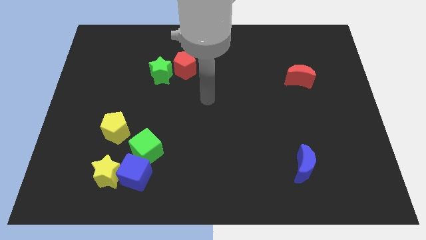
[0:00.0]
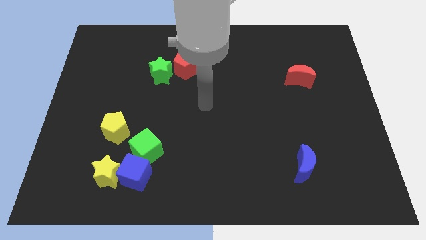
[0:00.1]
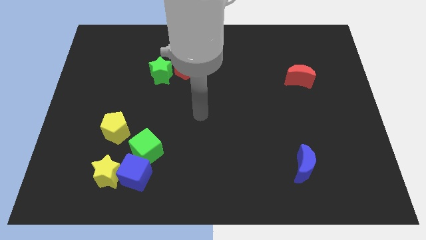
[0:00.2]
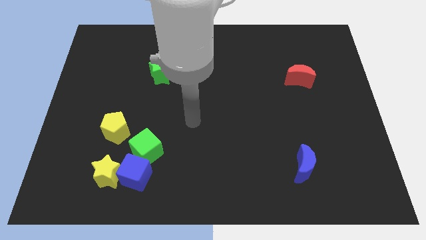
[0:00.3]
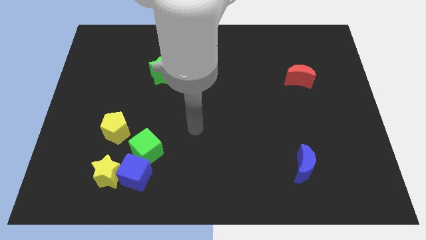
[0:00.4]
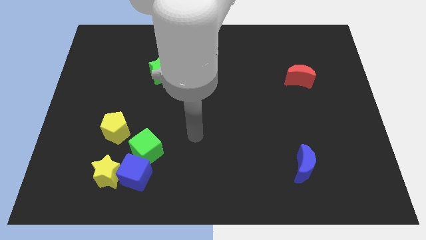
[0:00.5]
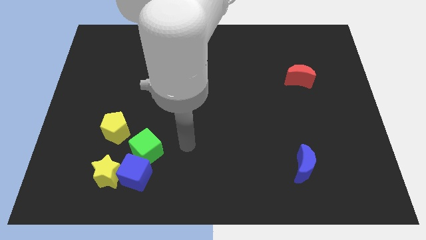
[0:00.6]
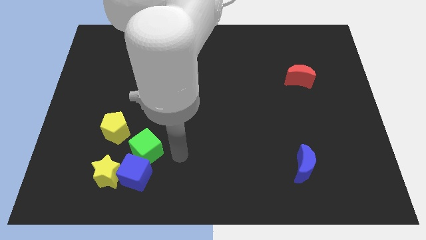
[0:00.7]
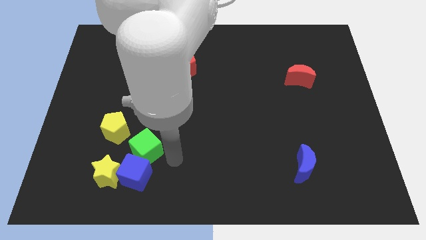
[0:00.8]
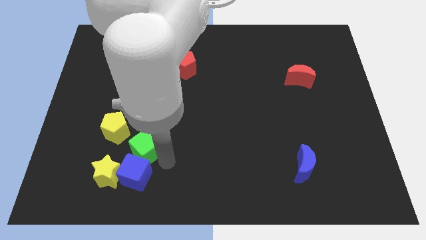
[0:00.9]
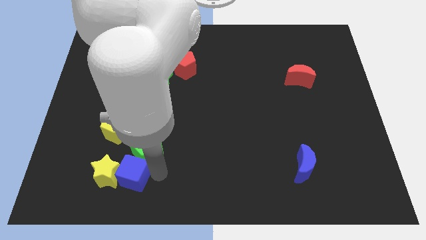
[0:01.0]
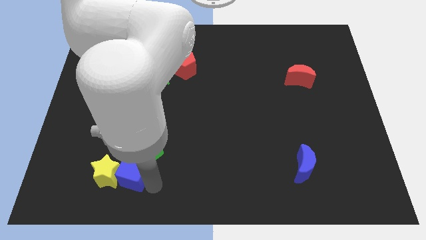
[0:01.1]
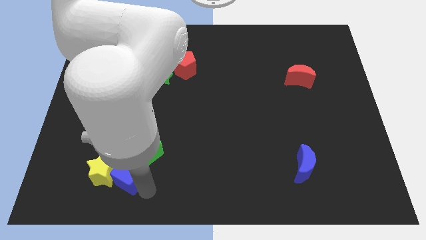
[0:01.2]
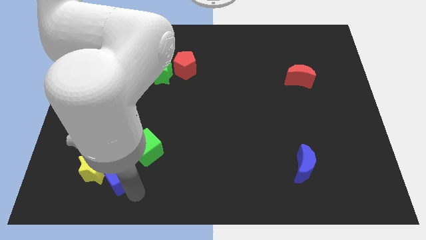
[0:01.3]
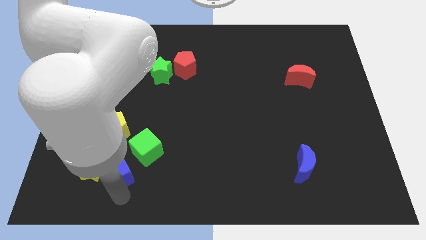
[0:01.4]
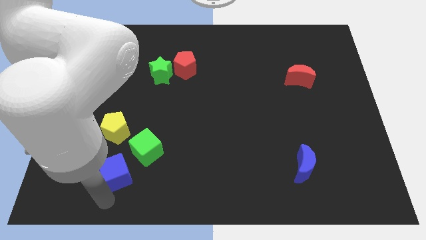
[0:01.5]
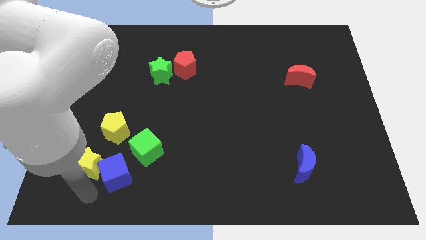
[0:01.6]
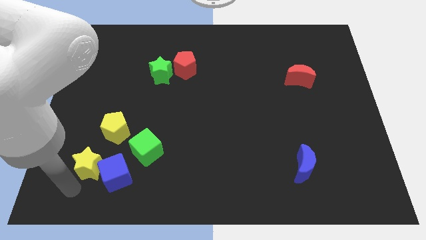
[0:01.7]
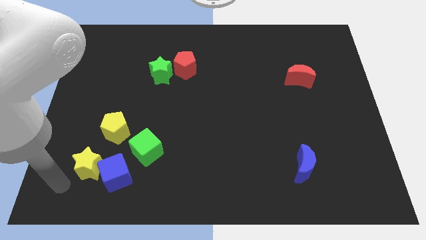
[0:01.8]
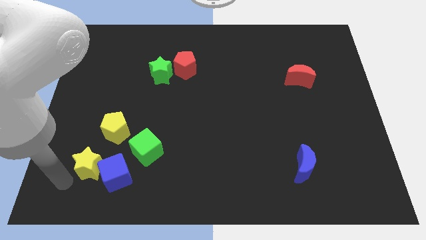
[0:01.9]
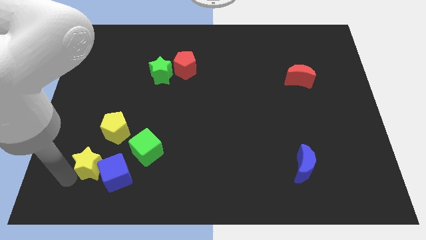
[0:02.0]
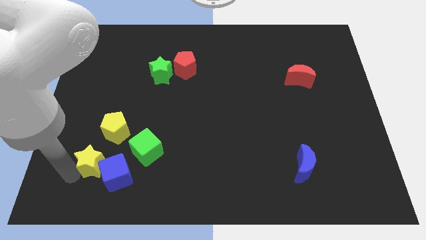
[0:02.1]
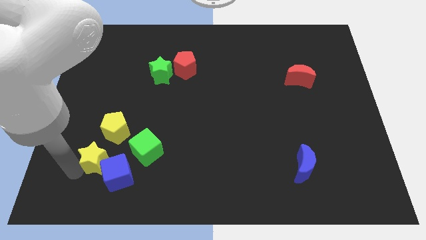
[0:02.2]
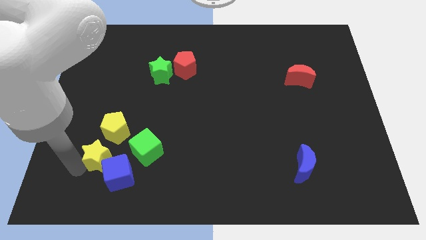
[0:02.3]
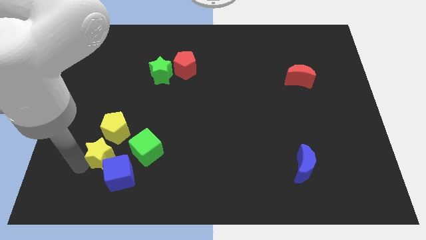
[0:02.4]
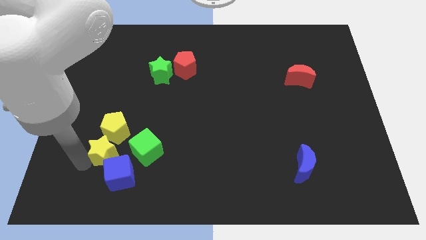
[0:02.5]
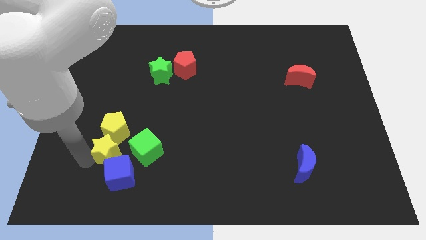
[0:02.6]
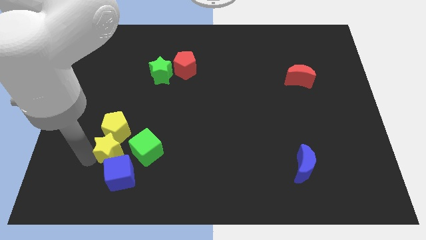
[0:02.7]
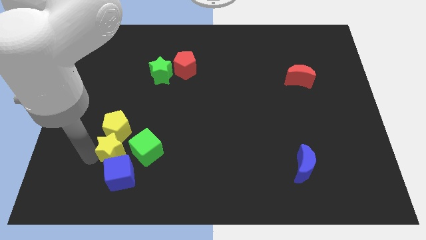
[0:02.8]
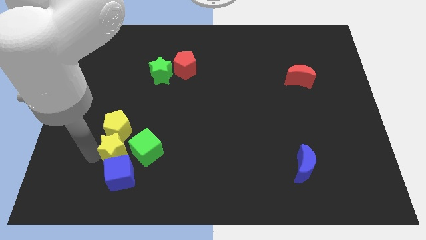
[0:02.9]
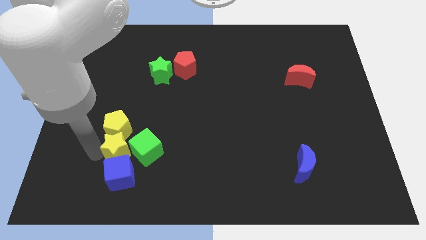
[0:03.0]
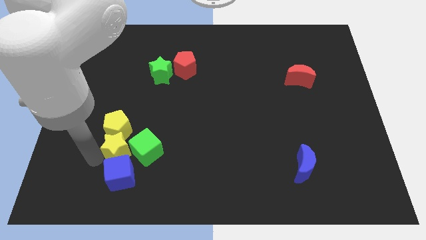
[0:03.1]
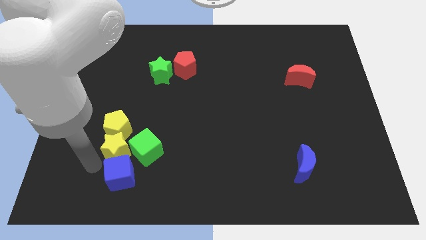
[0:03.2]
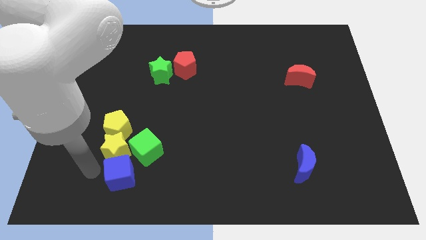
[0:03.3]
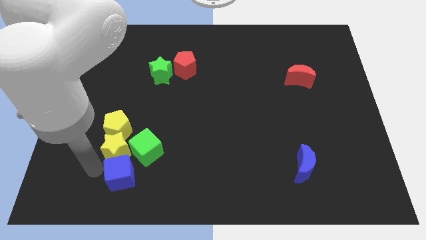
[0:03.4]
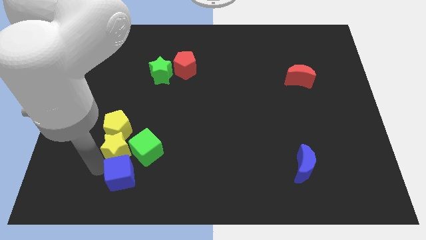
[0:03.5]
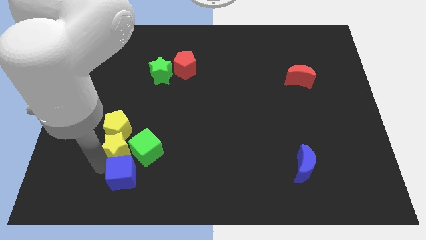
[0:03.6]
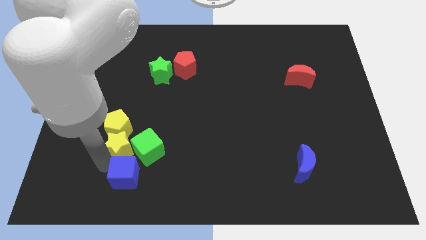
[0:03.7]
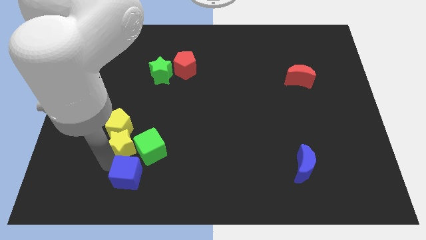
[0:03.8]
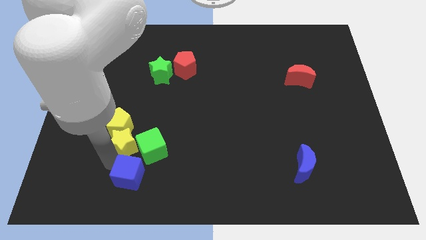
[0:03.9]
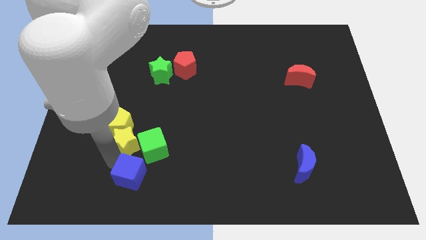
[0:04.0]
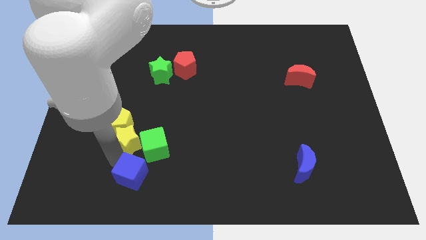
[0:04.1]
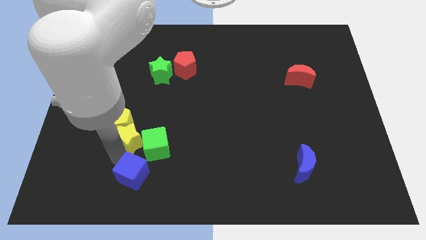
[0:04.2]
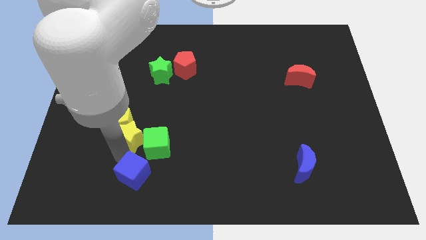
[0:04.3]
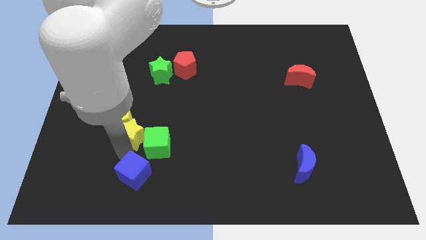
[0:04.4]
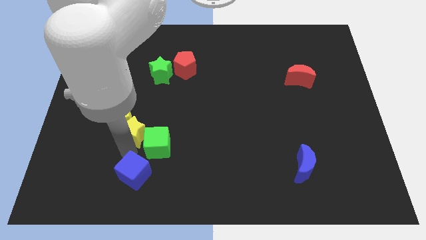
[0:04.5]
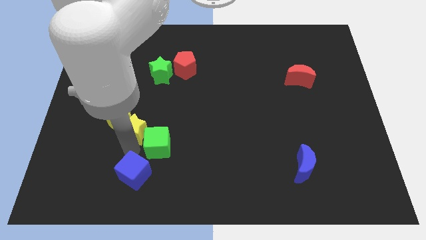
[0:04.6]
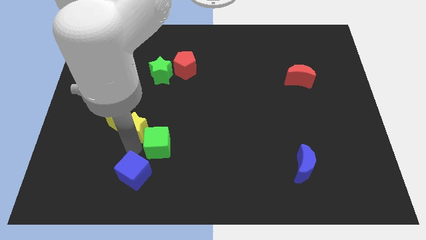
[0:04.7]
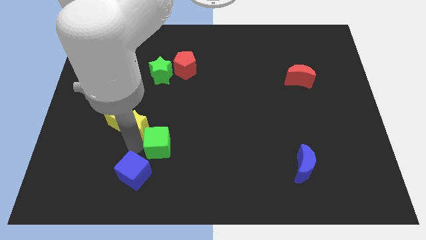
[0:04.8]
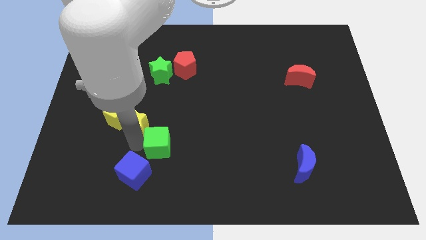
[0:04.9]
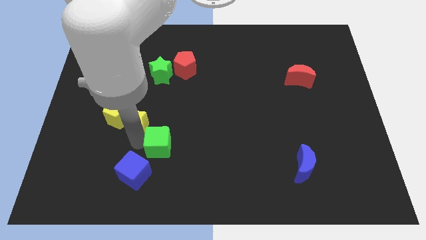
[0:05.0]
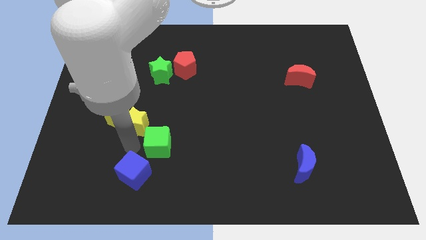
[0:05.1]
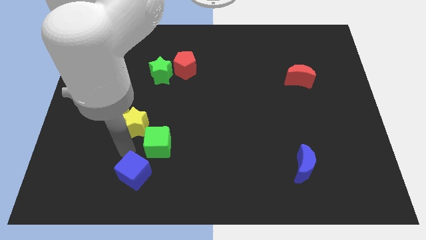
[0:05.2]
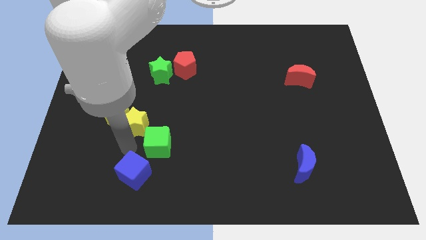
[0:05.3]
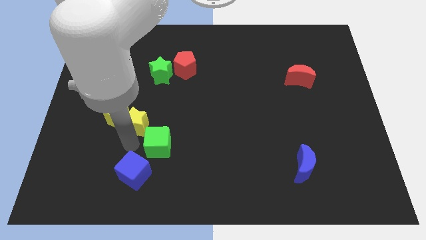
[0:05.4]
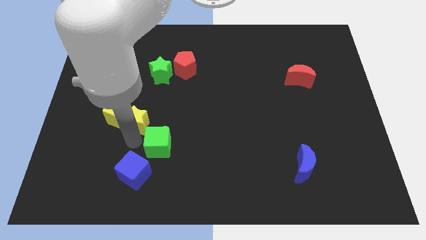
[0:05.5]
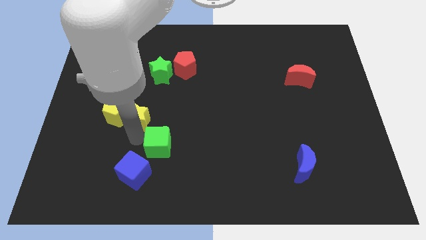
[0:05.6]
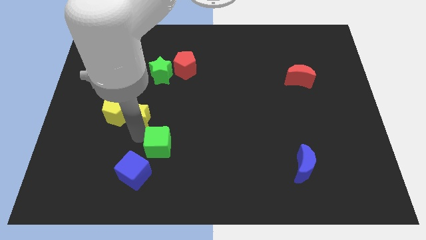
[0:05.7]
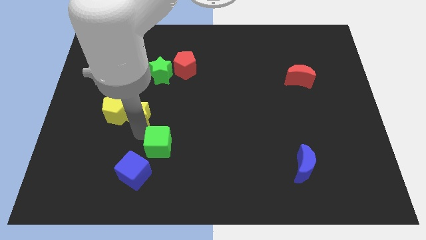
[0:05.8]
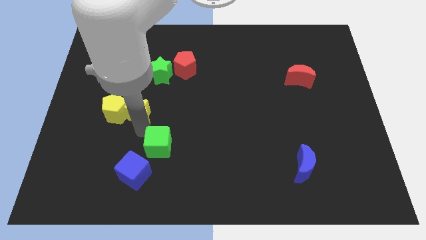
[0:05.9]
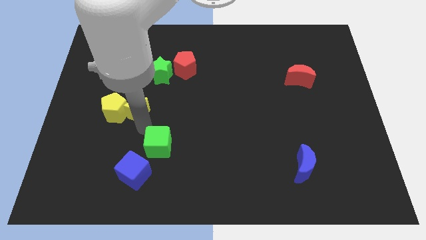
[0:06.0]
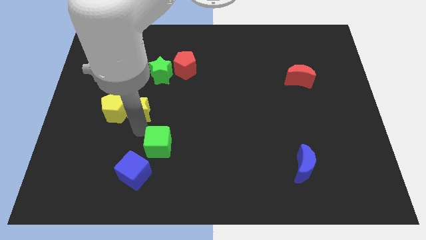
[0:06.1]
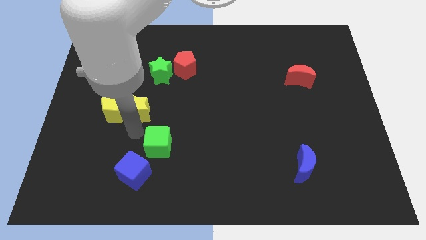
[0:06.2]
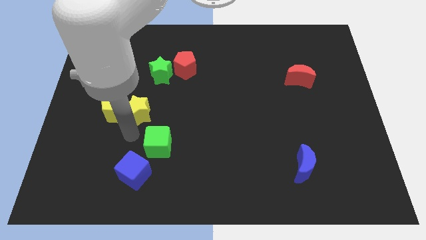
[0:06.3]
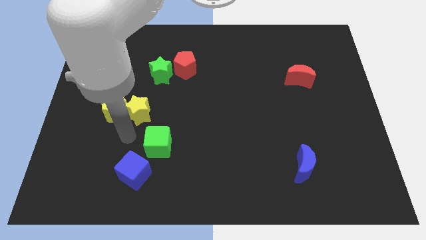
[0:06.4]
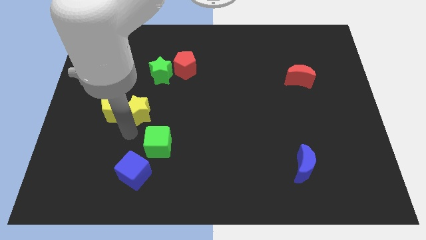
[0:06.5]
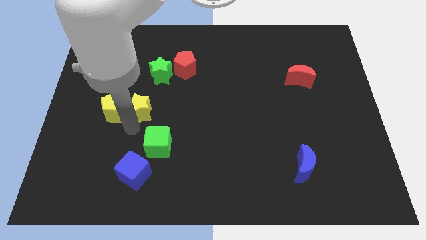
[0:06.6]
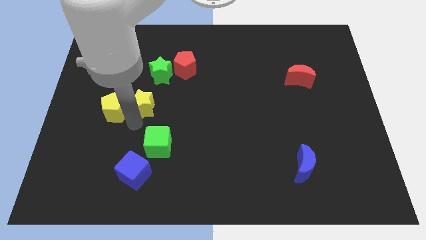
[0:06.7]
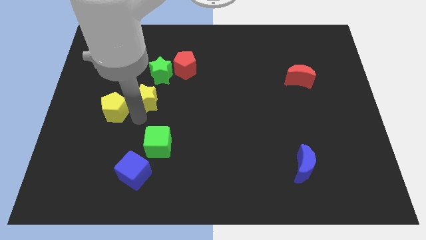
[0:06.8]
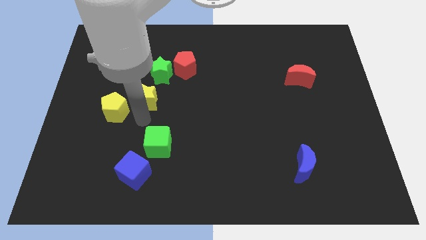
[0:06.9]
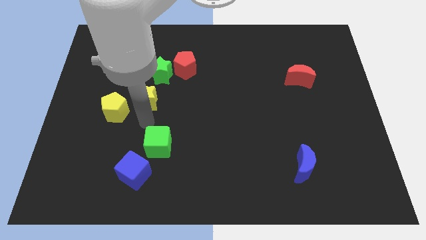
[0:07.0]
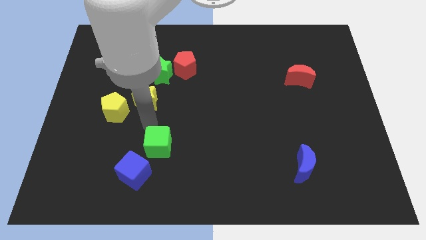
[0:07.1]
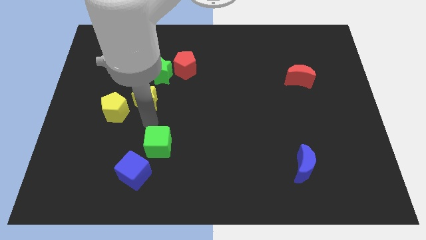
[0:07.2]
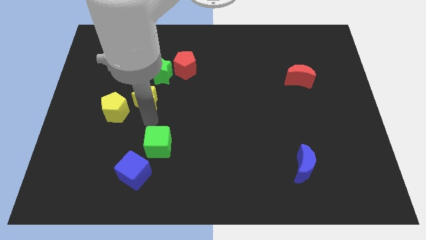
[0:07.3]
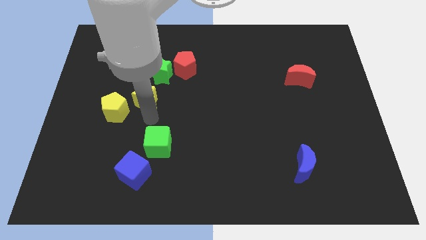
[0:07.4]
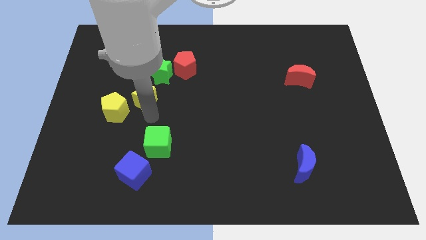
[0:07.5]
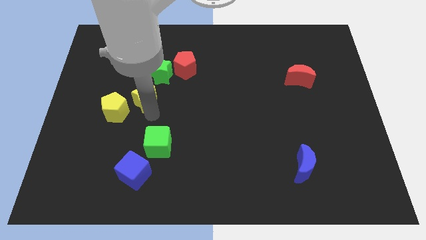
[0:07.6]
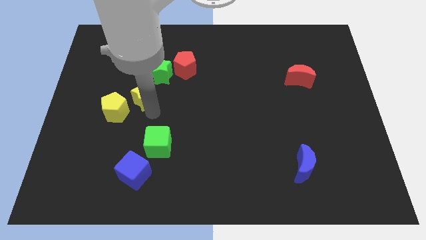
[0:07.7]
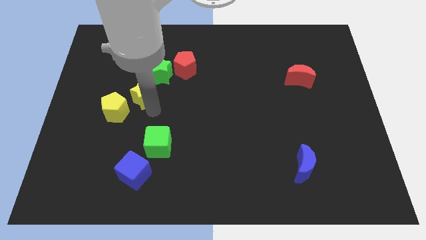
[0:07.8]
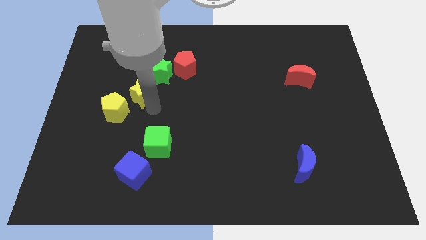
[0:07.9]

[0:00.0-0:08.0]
slide the yellow star upwards

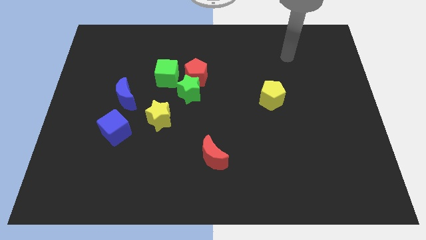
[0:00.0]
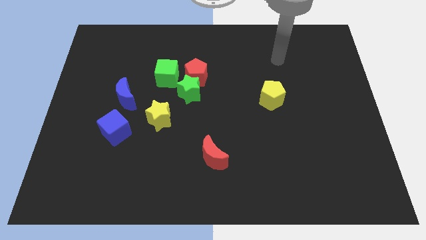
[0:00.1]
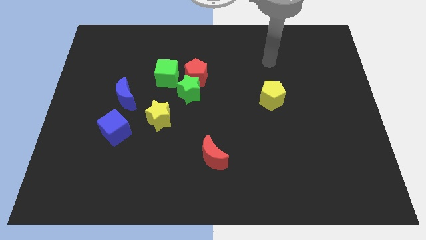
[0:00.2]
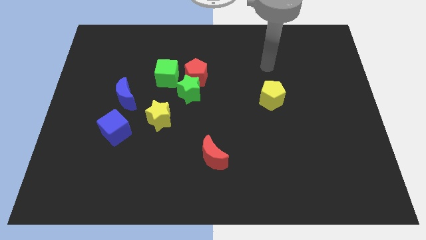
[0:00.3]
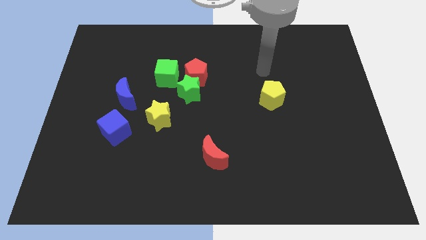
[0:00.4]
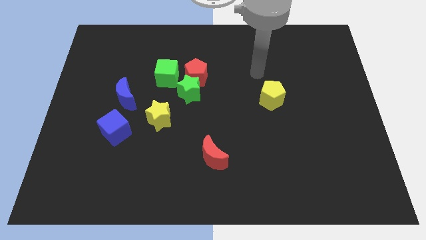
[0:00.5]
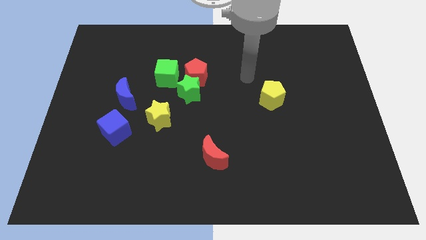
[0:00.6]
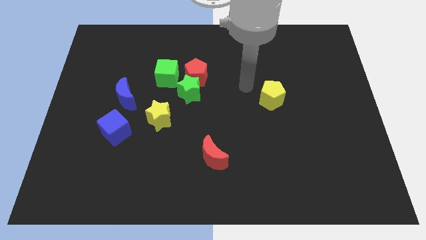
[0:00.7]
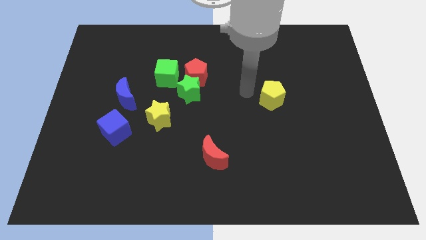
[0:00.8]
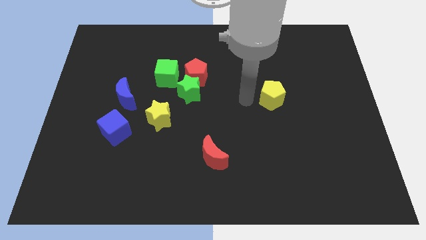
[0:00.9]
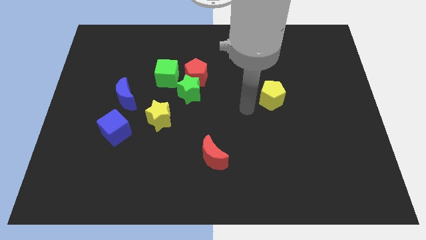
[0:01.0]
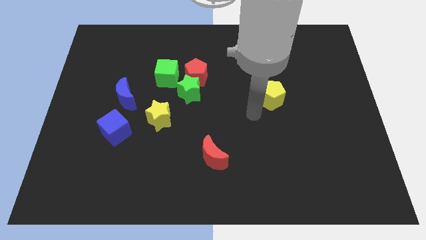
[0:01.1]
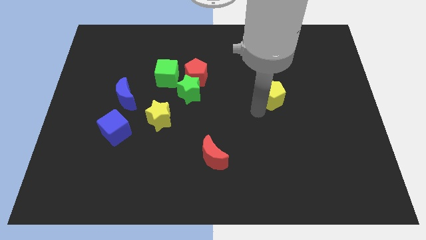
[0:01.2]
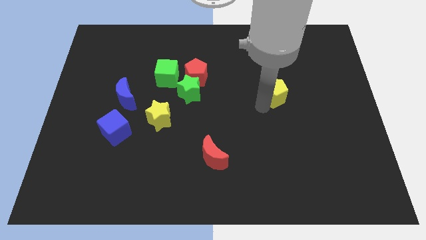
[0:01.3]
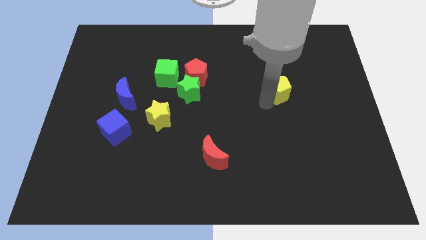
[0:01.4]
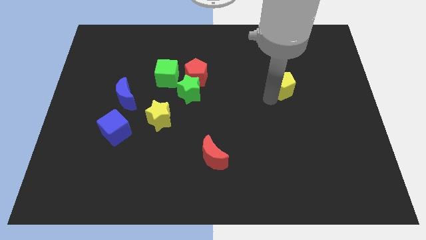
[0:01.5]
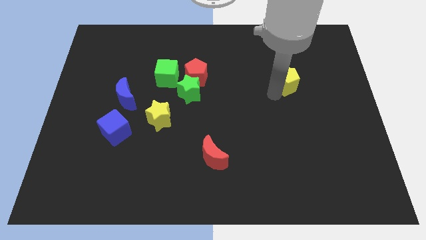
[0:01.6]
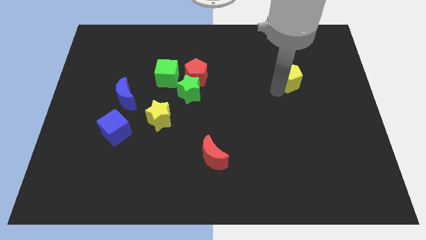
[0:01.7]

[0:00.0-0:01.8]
move the yellow pentagon a little up and then to the right
